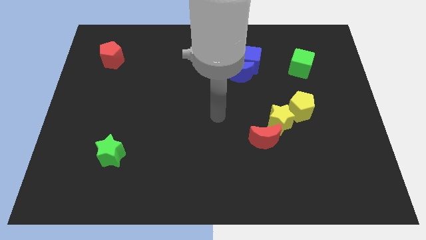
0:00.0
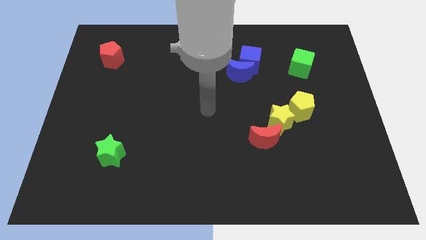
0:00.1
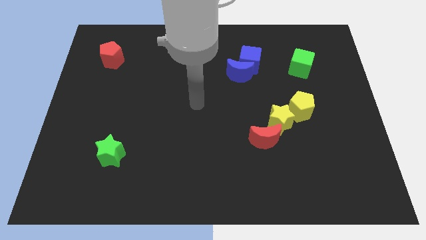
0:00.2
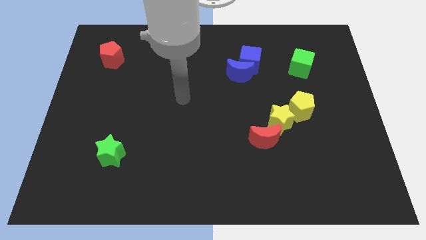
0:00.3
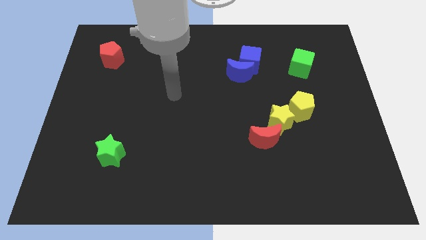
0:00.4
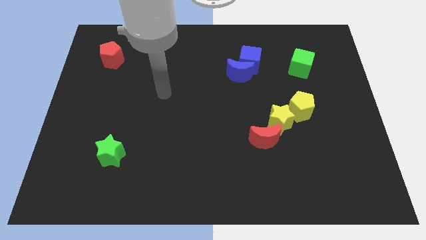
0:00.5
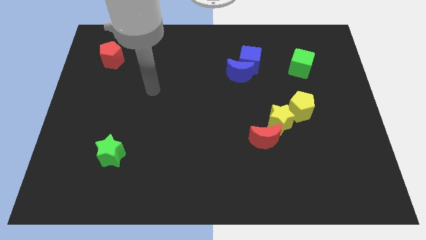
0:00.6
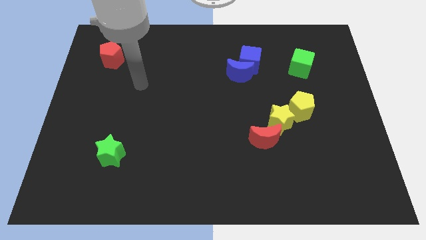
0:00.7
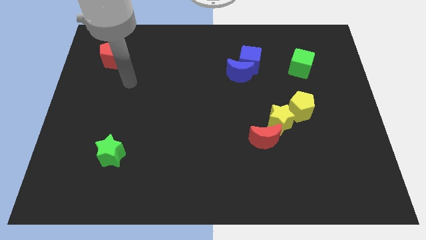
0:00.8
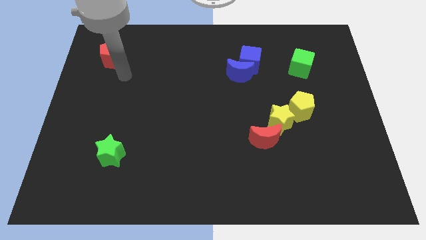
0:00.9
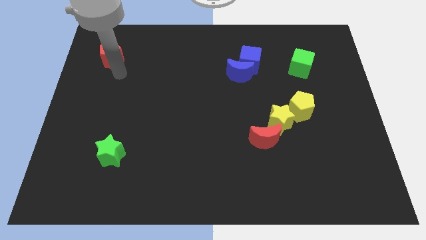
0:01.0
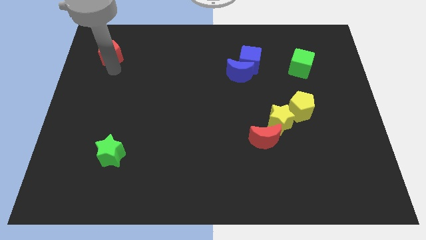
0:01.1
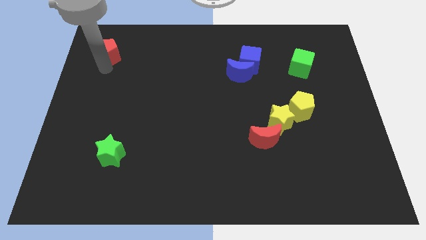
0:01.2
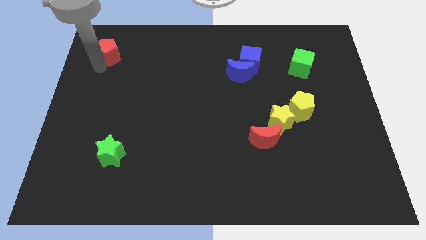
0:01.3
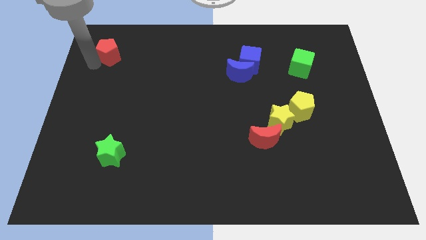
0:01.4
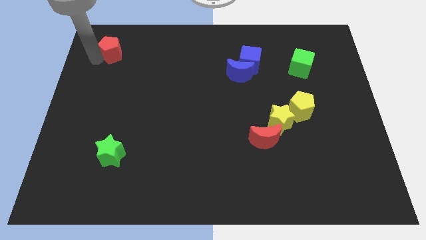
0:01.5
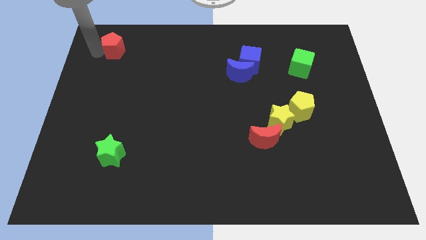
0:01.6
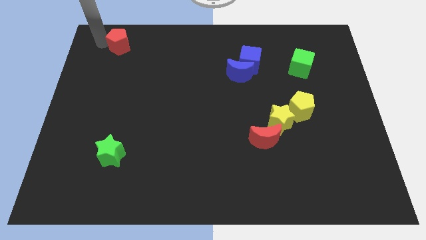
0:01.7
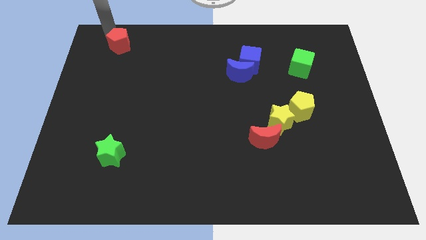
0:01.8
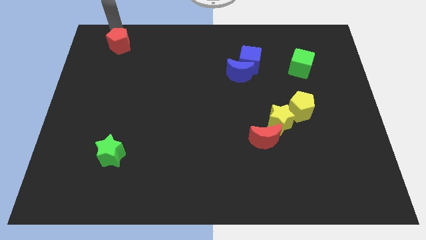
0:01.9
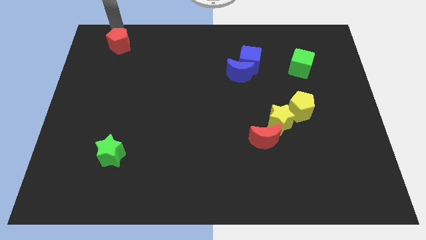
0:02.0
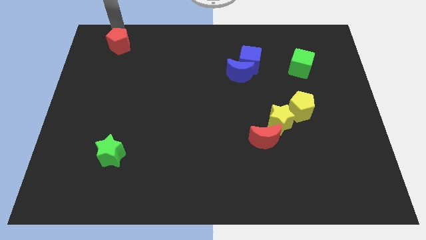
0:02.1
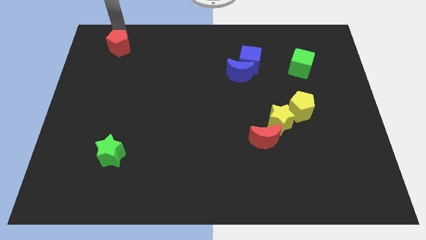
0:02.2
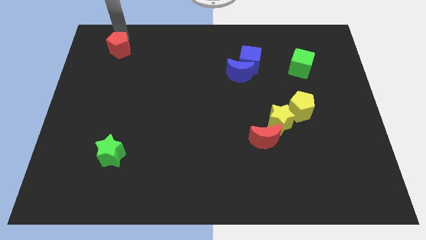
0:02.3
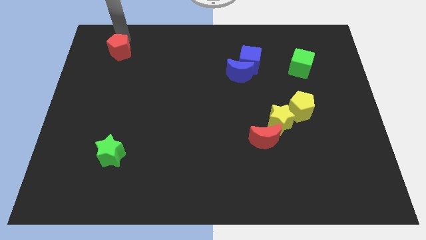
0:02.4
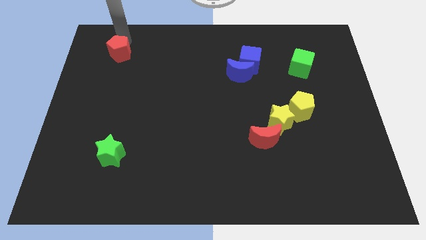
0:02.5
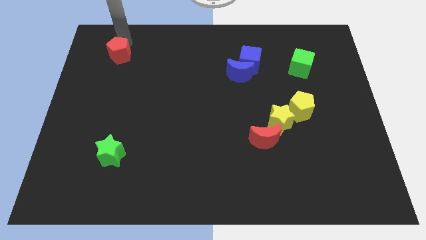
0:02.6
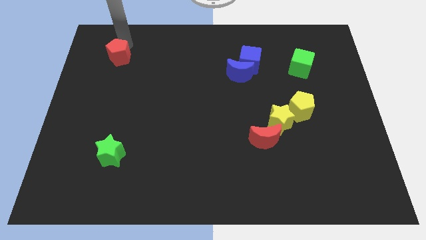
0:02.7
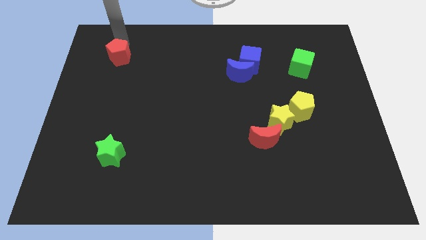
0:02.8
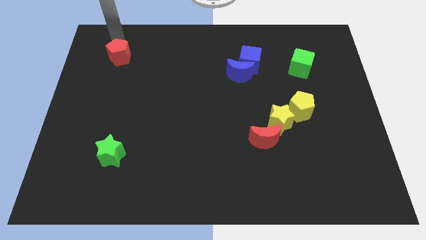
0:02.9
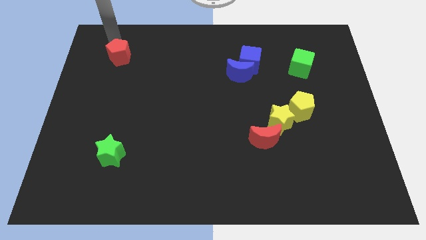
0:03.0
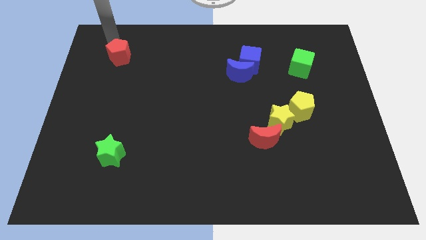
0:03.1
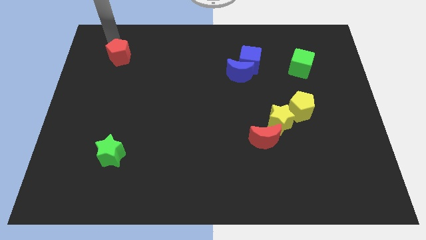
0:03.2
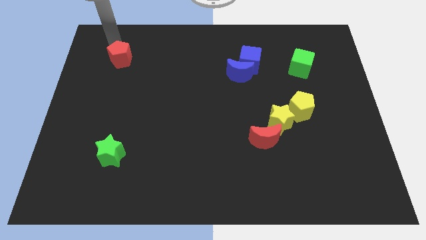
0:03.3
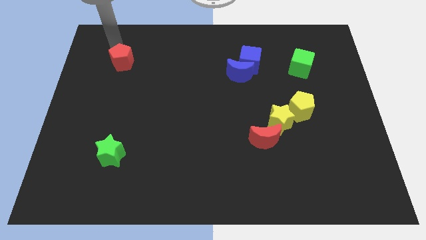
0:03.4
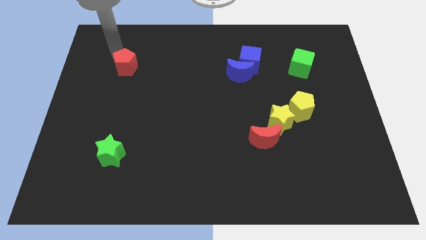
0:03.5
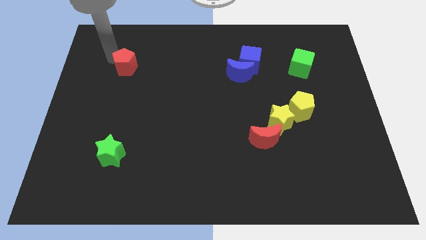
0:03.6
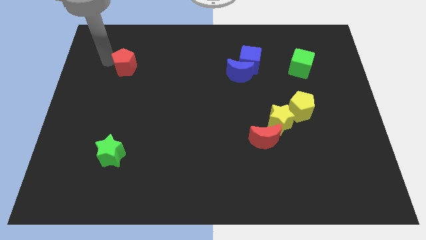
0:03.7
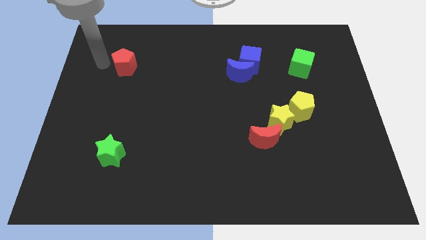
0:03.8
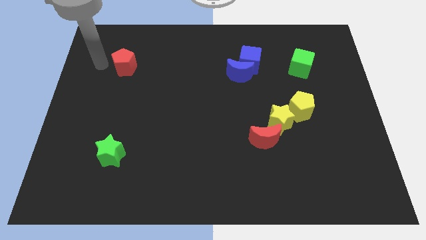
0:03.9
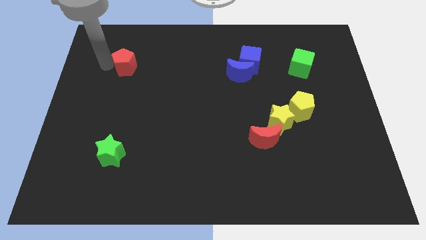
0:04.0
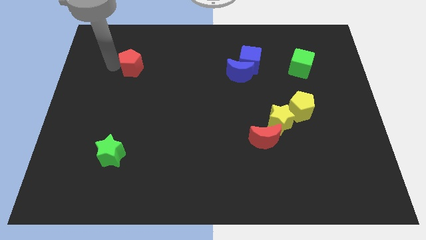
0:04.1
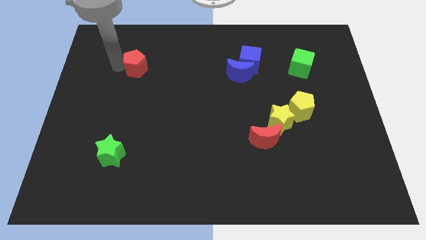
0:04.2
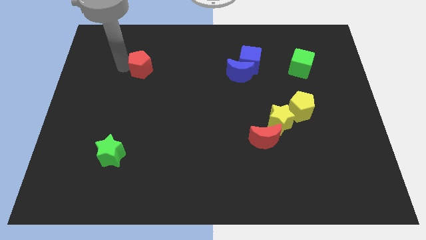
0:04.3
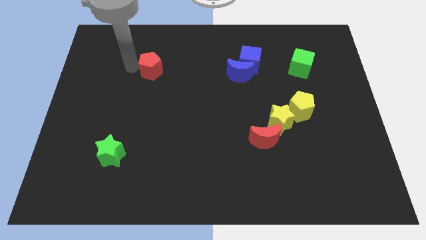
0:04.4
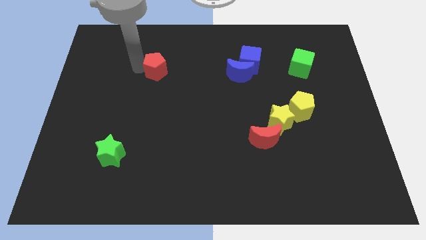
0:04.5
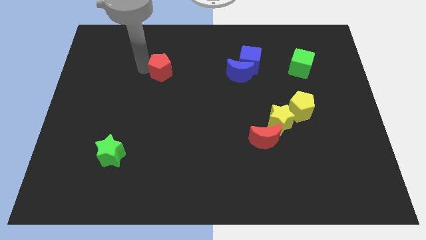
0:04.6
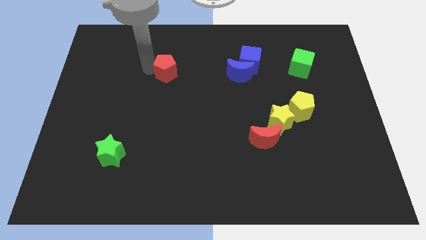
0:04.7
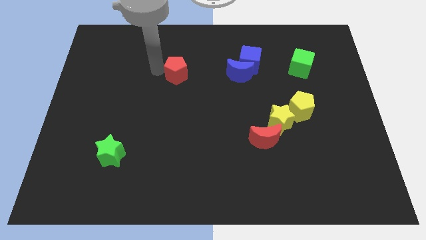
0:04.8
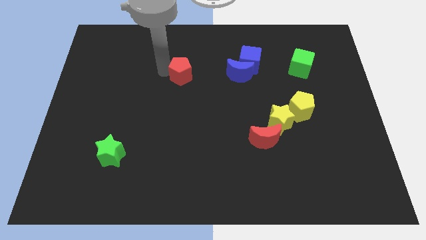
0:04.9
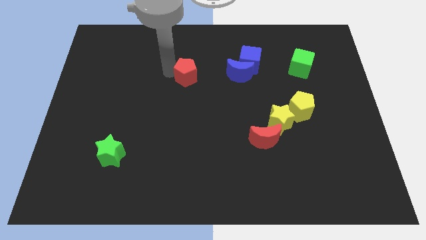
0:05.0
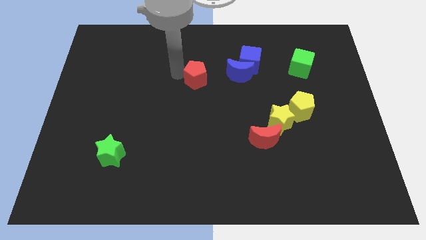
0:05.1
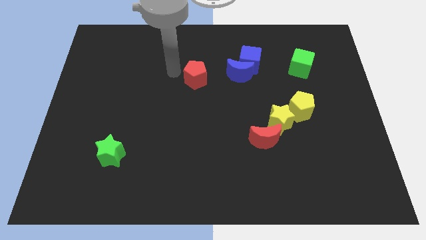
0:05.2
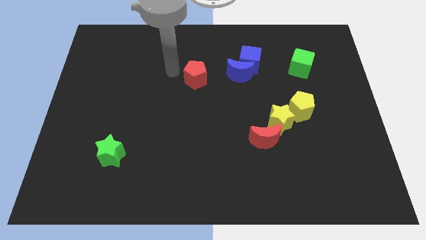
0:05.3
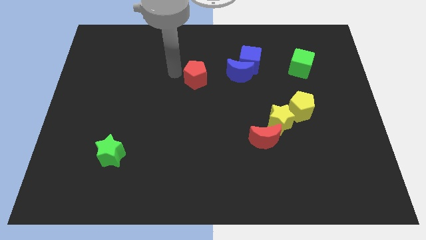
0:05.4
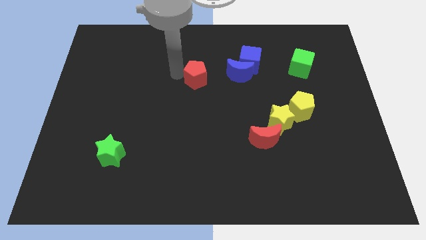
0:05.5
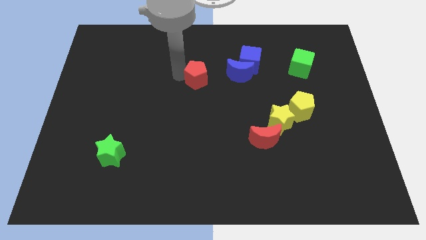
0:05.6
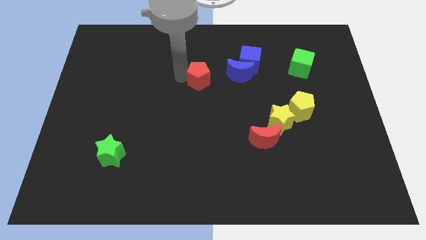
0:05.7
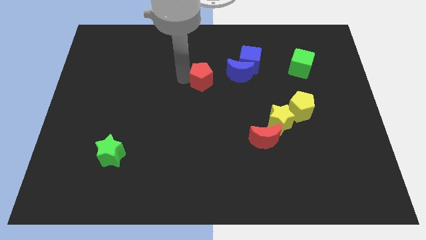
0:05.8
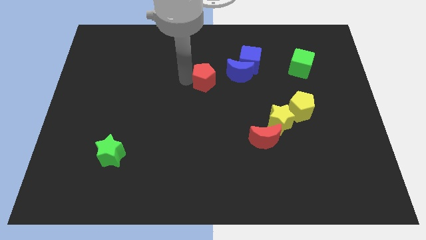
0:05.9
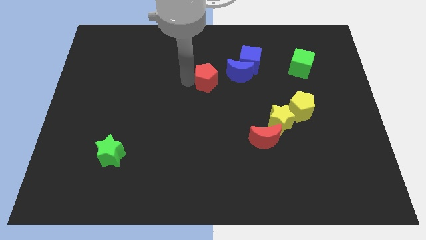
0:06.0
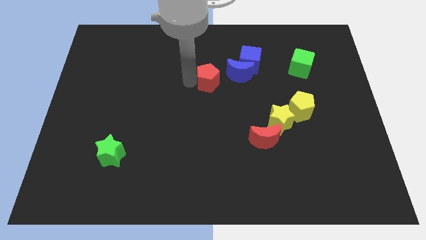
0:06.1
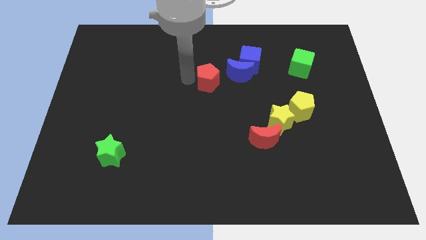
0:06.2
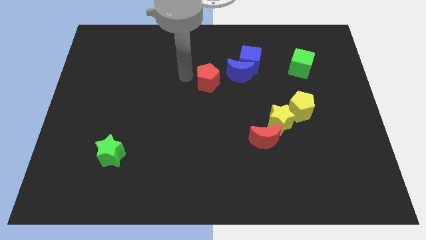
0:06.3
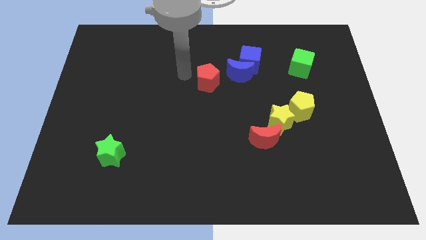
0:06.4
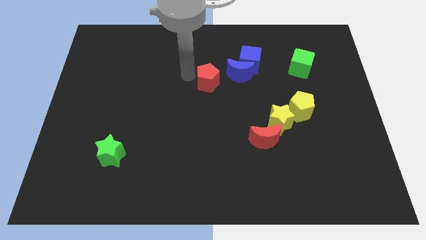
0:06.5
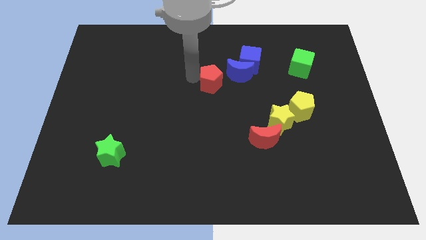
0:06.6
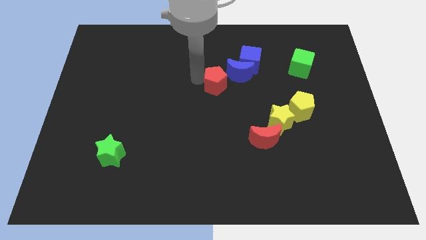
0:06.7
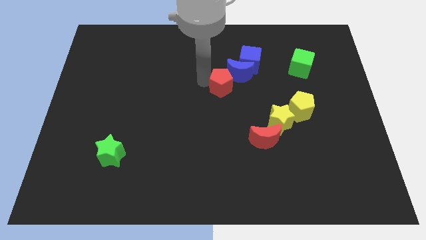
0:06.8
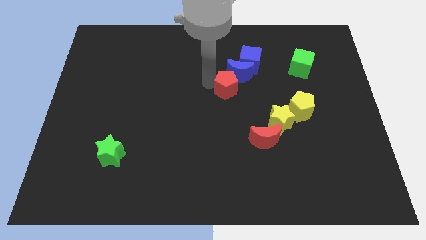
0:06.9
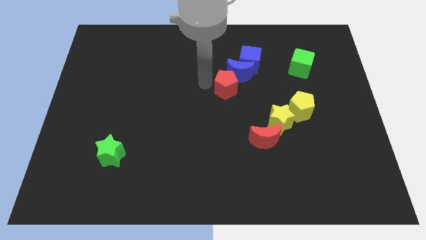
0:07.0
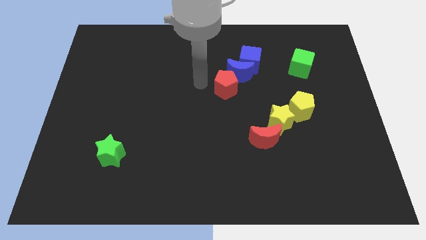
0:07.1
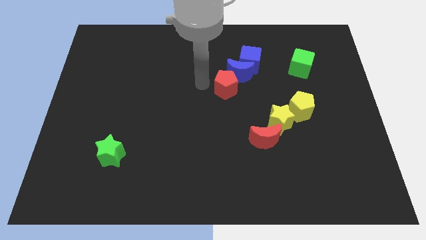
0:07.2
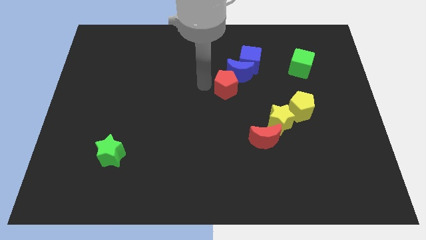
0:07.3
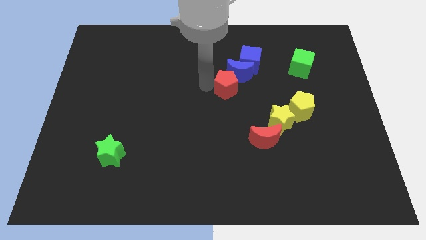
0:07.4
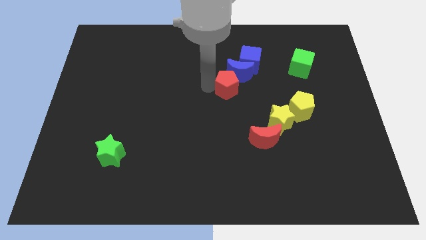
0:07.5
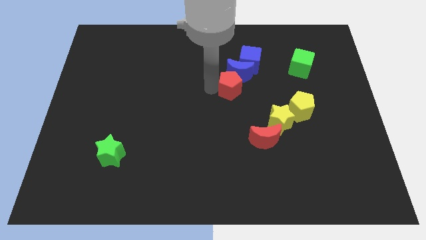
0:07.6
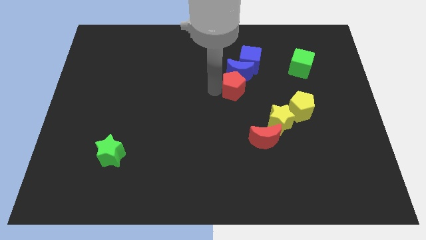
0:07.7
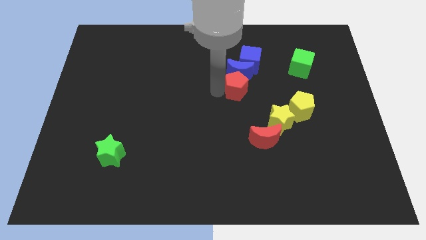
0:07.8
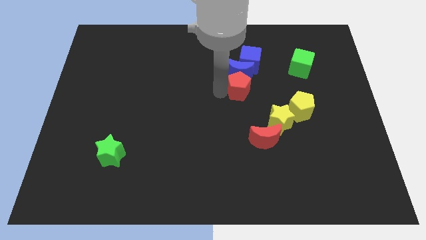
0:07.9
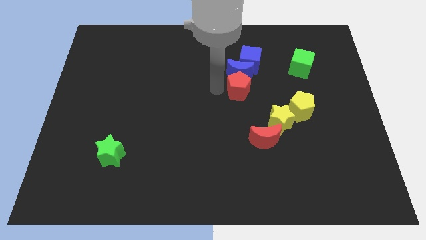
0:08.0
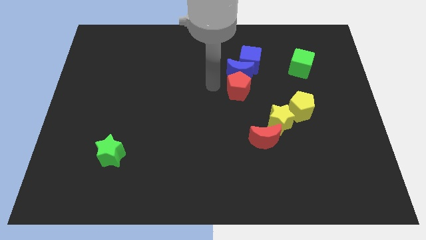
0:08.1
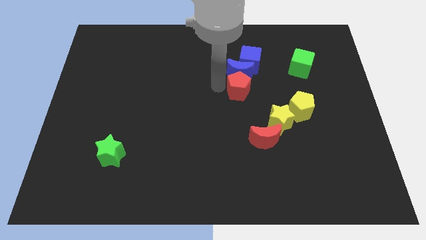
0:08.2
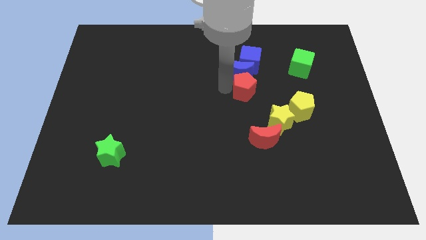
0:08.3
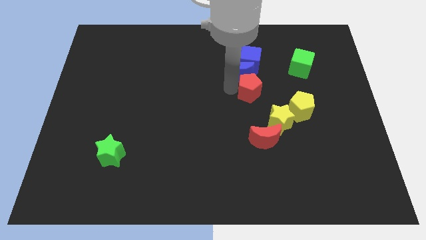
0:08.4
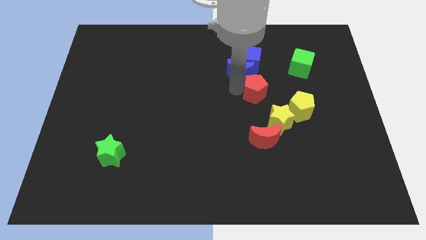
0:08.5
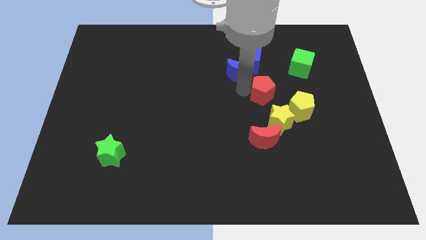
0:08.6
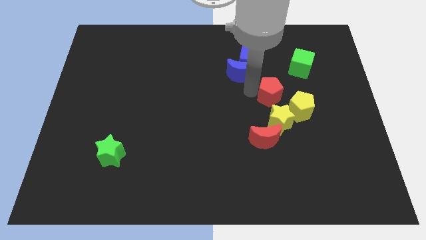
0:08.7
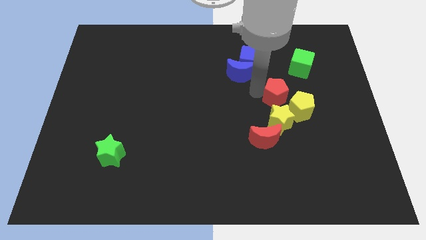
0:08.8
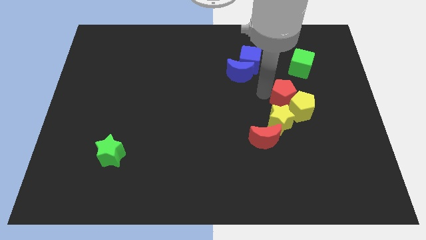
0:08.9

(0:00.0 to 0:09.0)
push the red pentagon next to the yellow pentagon
